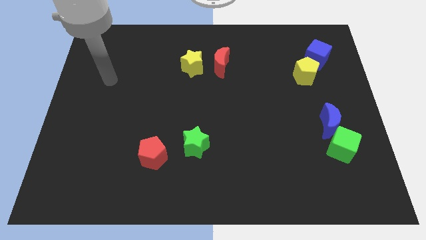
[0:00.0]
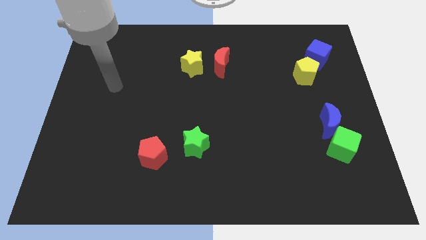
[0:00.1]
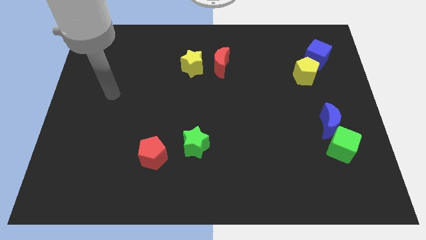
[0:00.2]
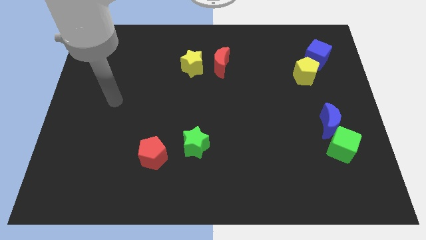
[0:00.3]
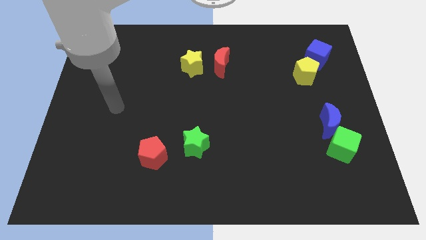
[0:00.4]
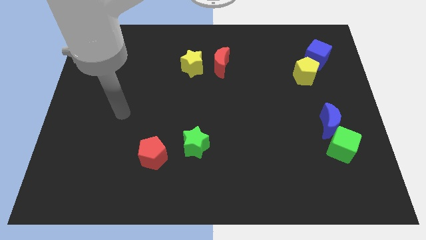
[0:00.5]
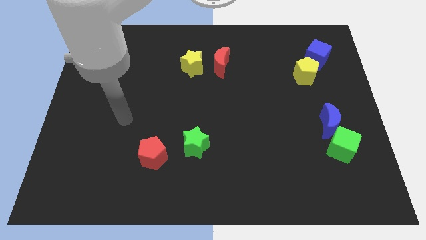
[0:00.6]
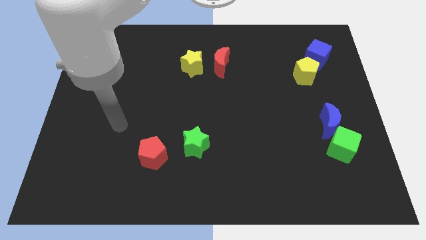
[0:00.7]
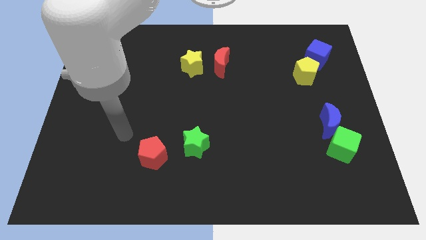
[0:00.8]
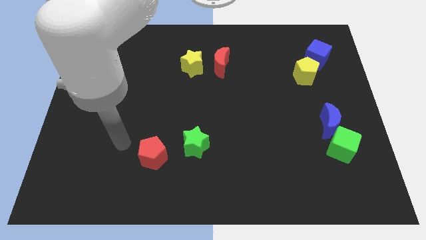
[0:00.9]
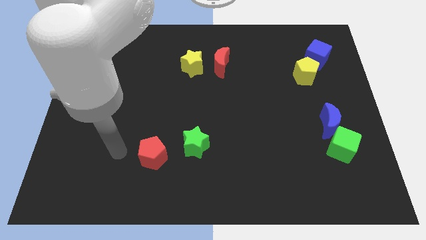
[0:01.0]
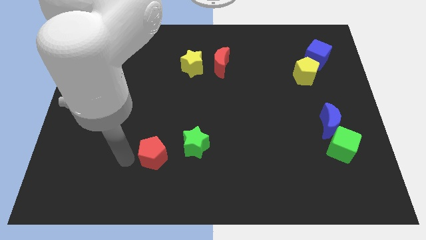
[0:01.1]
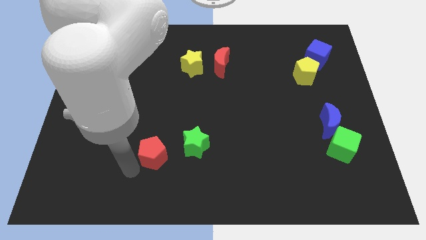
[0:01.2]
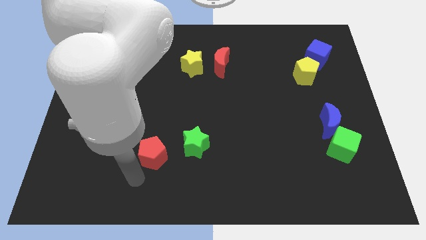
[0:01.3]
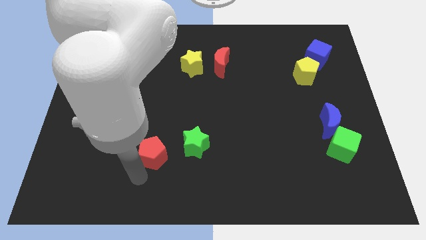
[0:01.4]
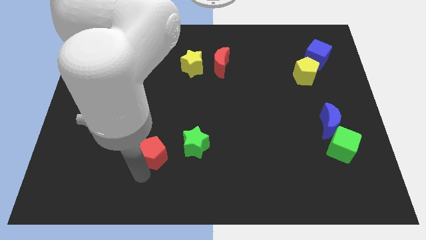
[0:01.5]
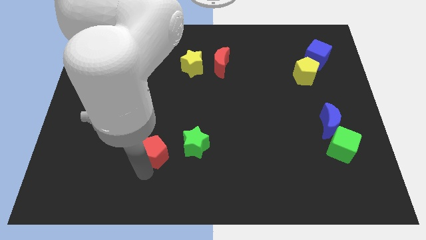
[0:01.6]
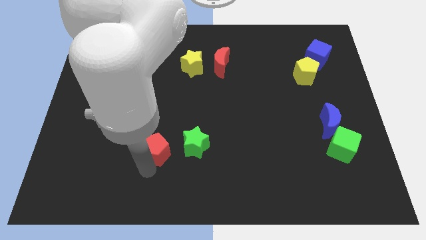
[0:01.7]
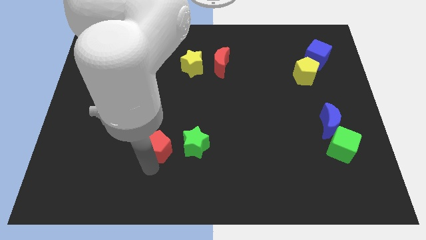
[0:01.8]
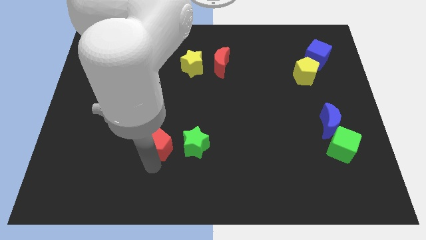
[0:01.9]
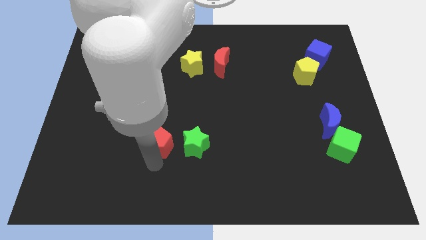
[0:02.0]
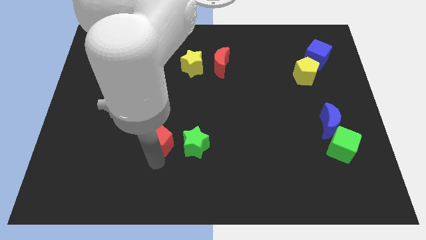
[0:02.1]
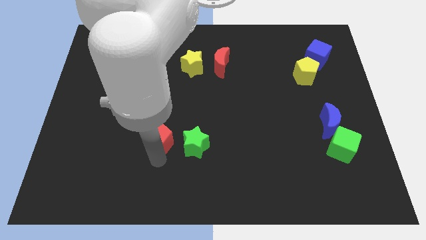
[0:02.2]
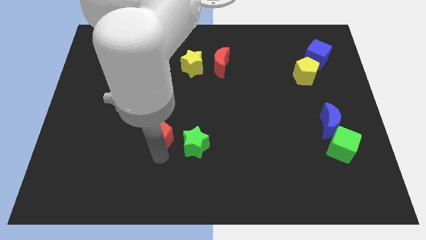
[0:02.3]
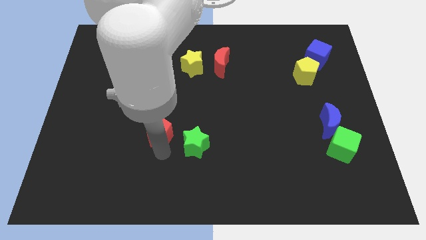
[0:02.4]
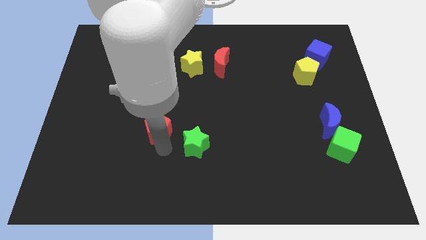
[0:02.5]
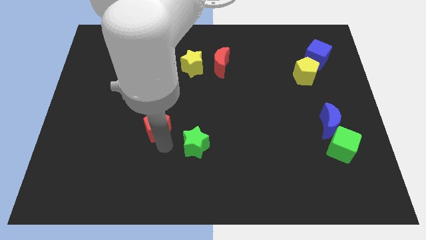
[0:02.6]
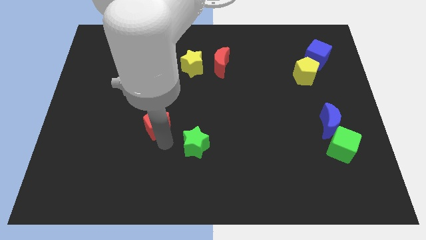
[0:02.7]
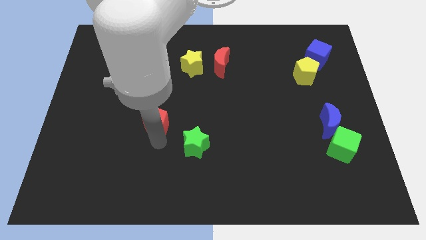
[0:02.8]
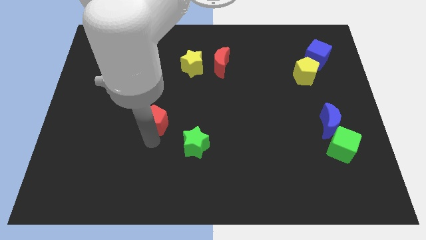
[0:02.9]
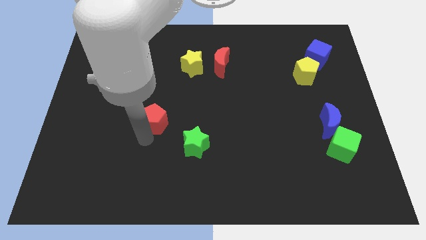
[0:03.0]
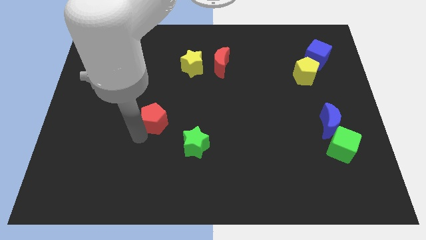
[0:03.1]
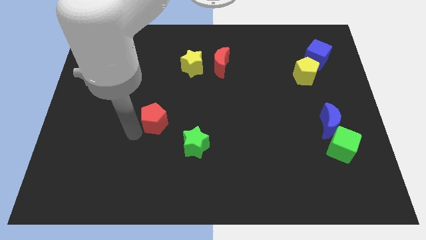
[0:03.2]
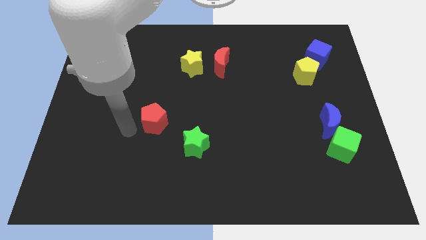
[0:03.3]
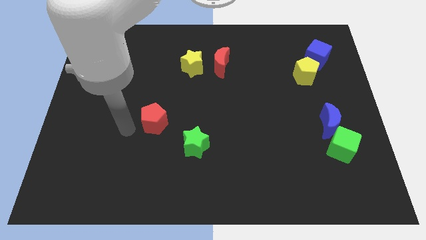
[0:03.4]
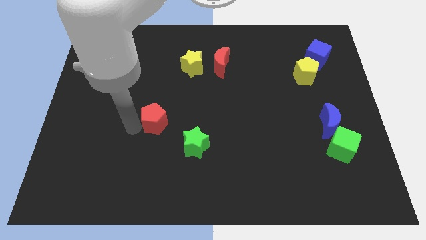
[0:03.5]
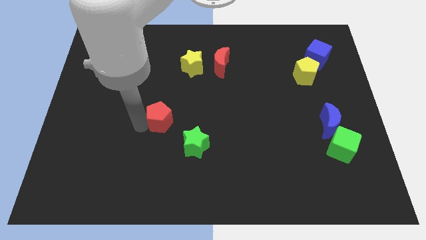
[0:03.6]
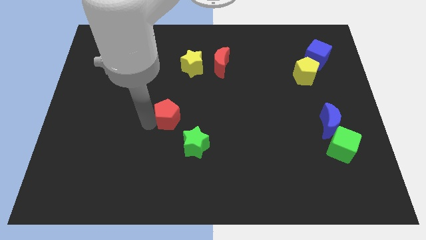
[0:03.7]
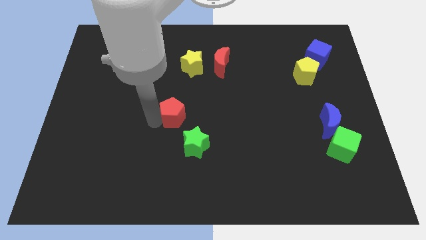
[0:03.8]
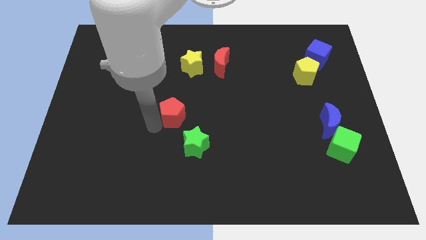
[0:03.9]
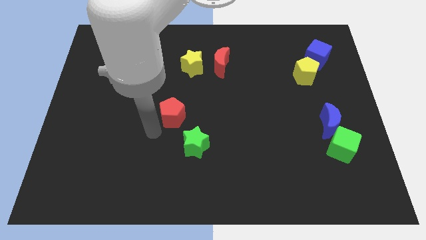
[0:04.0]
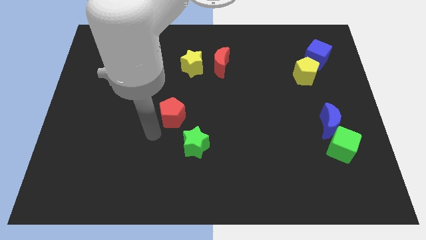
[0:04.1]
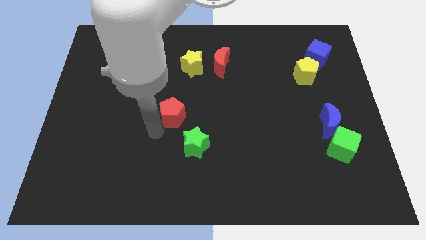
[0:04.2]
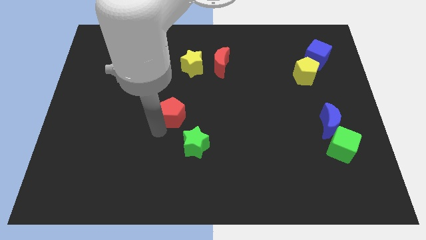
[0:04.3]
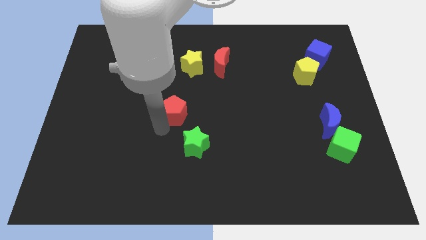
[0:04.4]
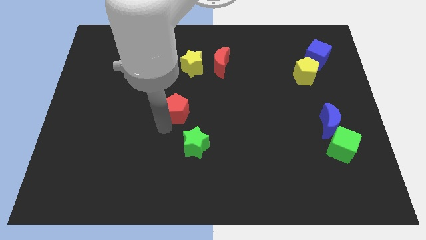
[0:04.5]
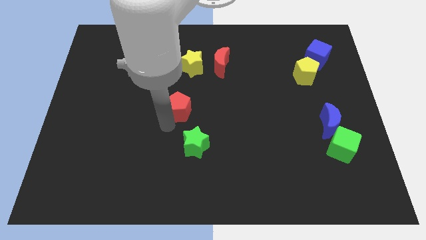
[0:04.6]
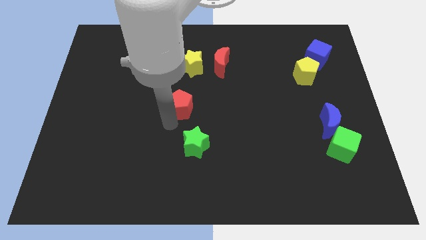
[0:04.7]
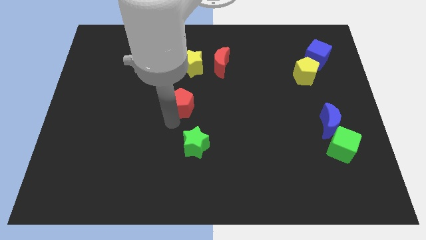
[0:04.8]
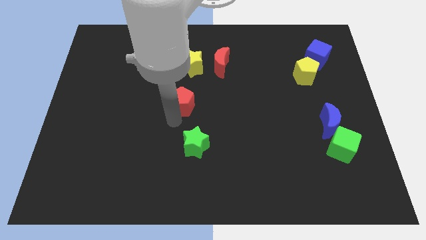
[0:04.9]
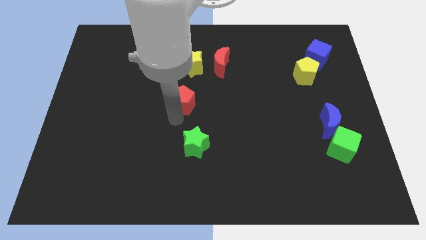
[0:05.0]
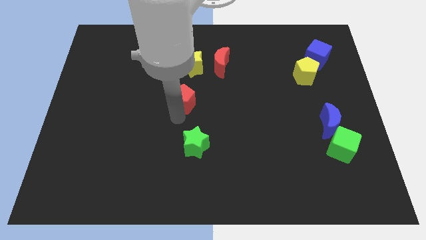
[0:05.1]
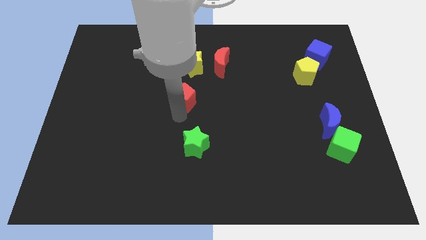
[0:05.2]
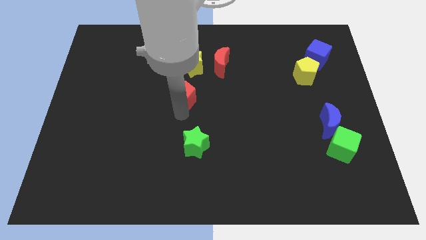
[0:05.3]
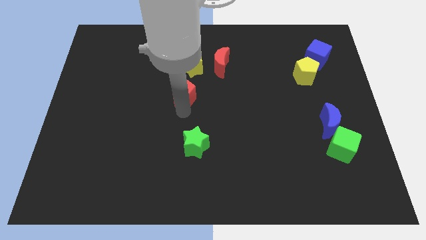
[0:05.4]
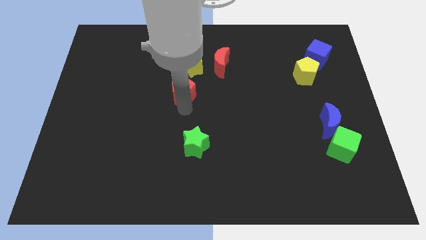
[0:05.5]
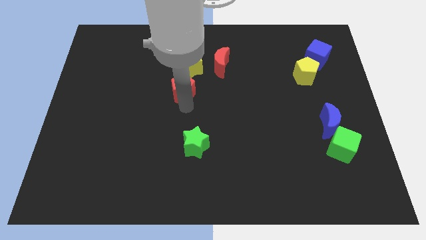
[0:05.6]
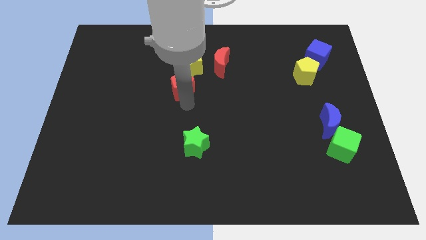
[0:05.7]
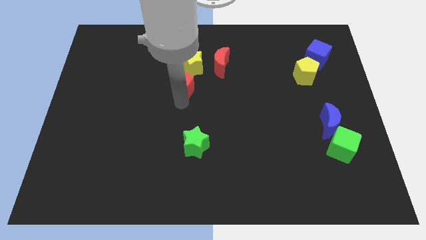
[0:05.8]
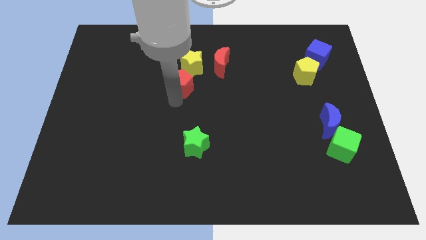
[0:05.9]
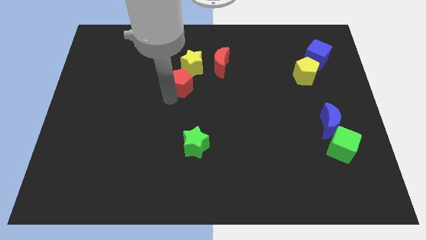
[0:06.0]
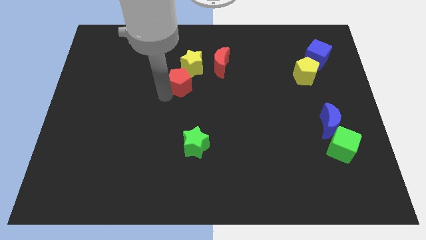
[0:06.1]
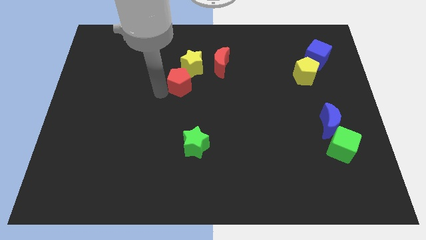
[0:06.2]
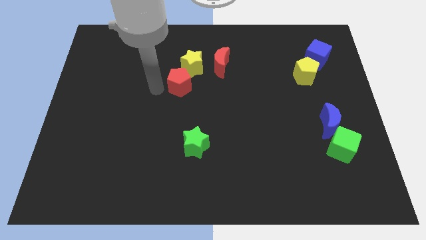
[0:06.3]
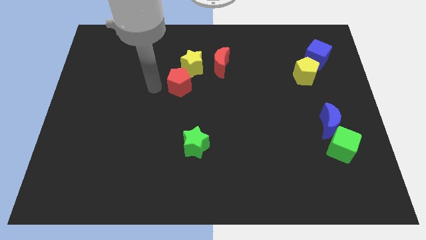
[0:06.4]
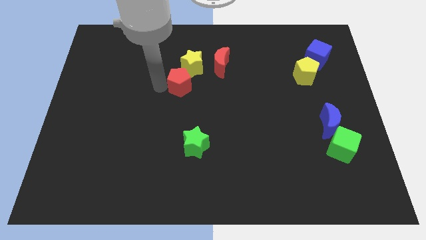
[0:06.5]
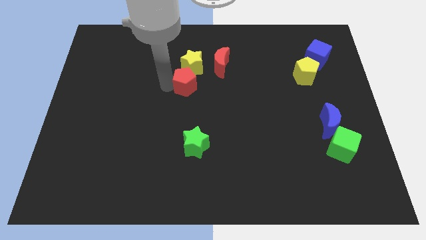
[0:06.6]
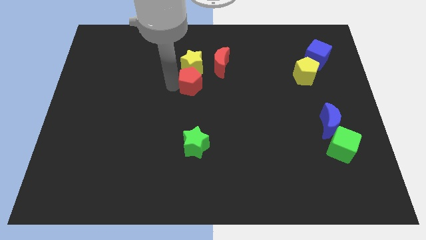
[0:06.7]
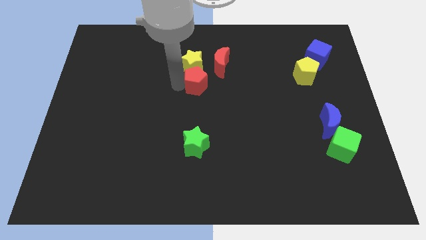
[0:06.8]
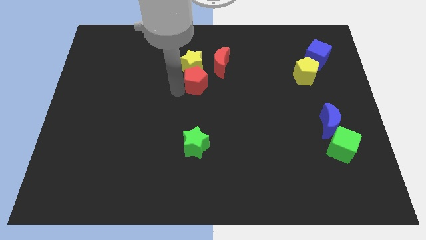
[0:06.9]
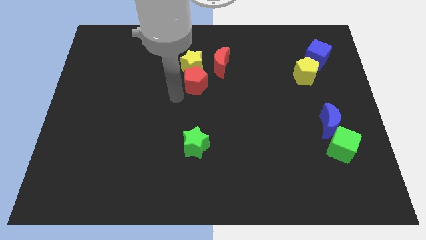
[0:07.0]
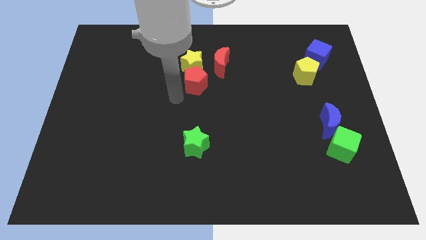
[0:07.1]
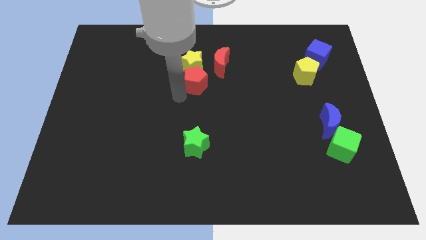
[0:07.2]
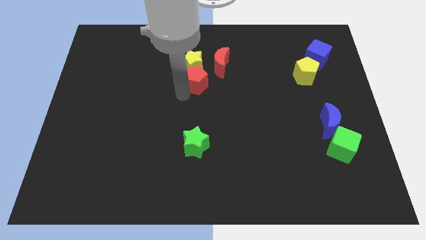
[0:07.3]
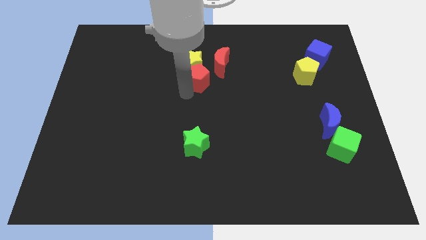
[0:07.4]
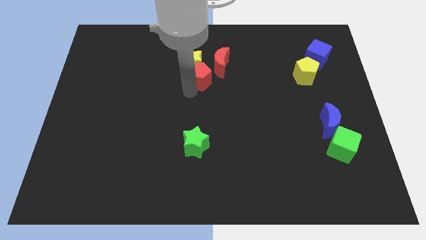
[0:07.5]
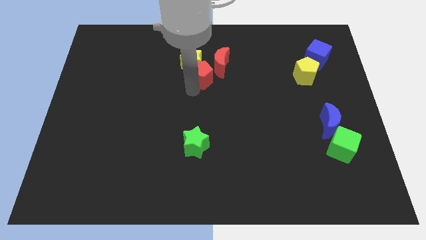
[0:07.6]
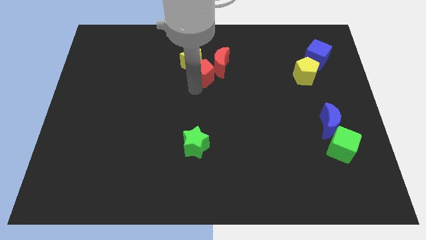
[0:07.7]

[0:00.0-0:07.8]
put the red pentagon towards the red moon
